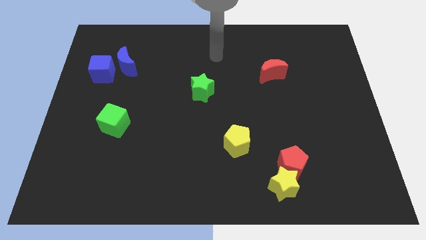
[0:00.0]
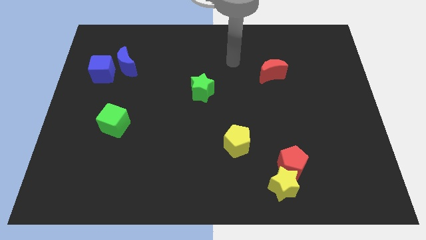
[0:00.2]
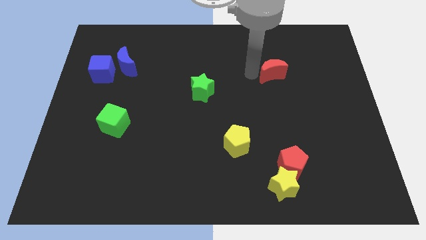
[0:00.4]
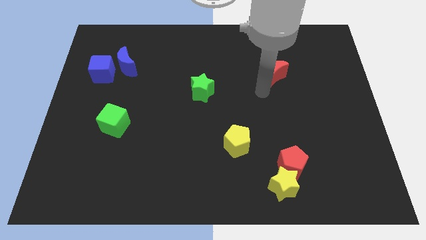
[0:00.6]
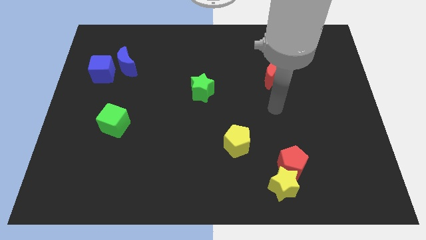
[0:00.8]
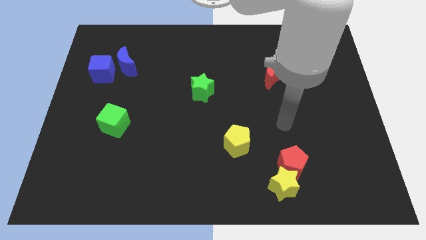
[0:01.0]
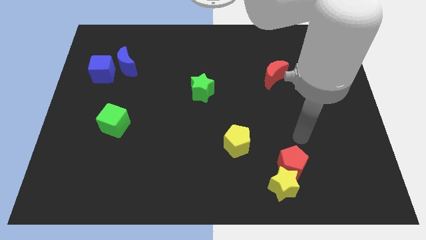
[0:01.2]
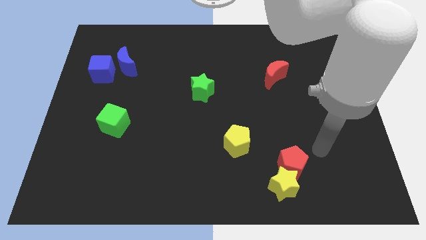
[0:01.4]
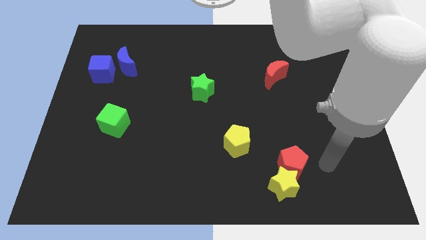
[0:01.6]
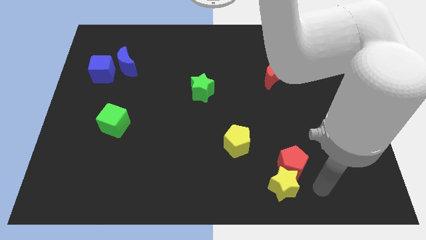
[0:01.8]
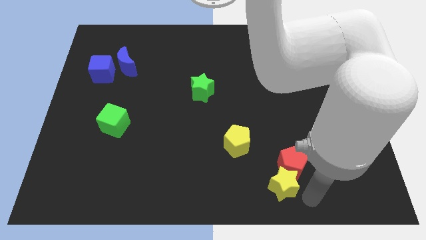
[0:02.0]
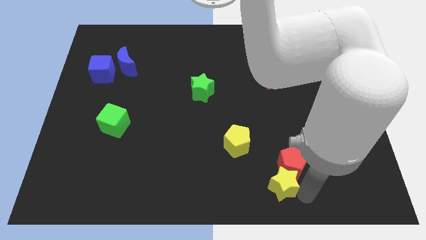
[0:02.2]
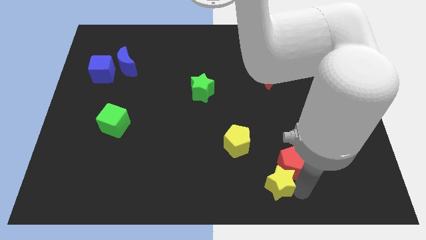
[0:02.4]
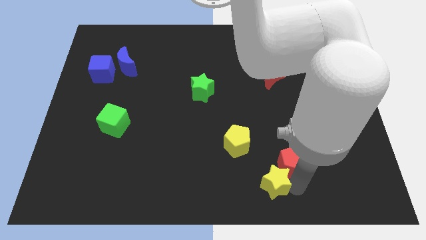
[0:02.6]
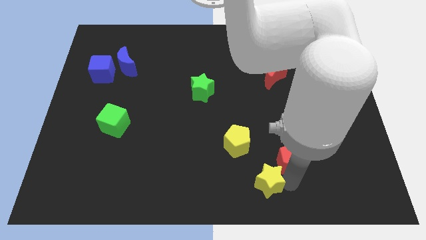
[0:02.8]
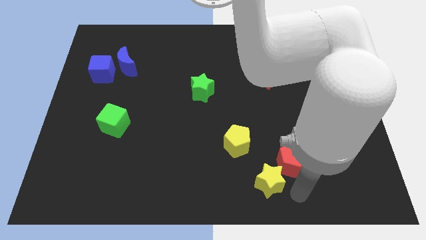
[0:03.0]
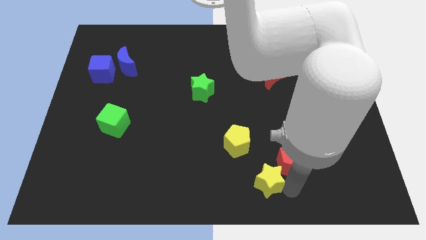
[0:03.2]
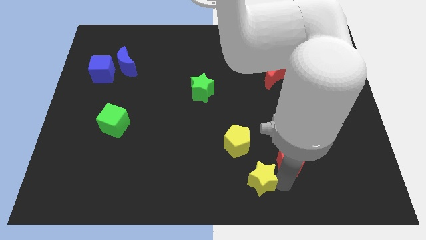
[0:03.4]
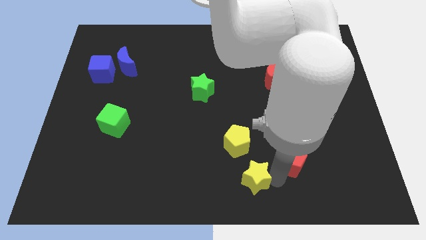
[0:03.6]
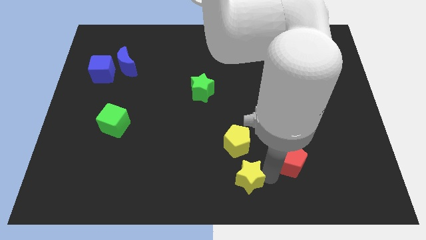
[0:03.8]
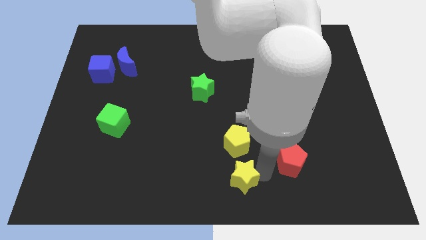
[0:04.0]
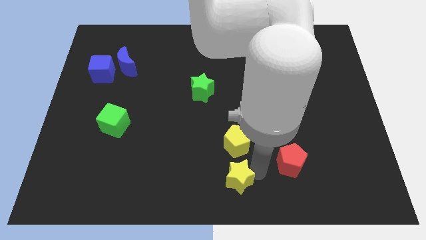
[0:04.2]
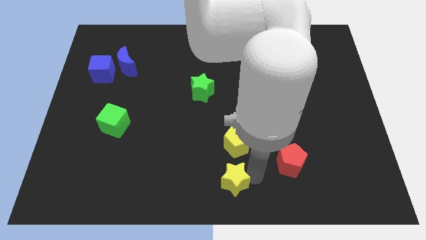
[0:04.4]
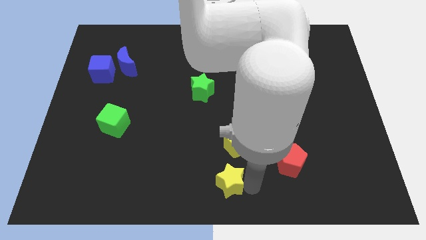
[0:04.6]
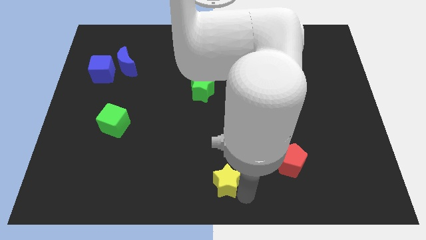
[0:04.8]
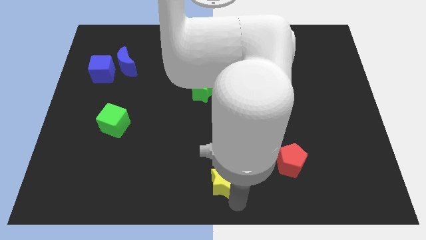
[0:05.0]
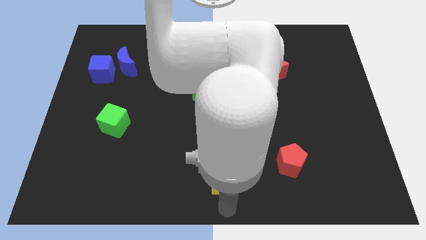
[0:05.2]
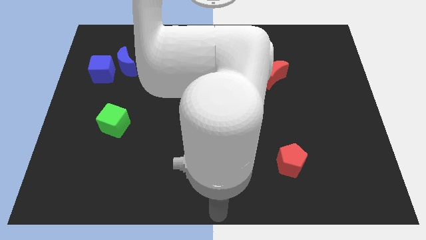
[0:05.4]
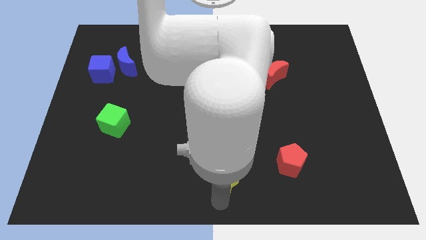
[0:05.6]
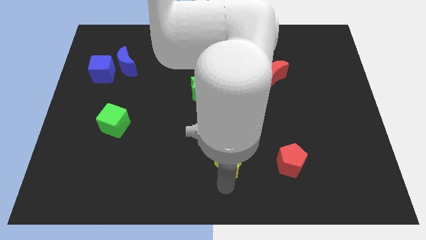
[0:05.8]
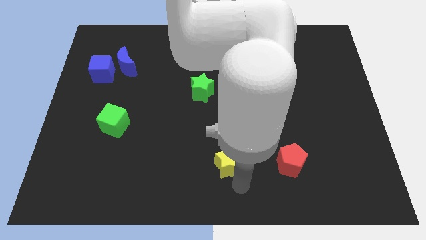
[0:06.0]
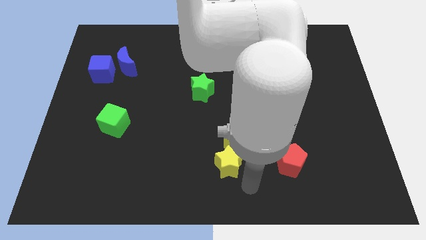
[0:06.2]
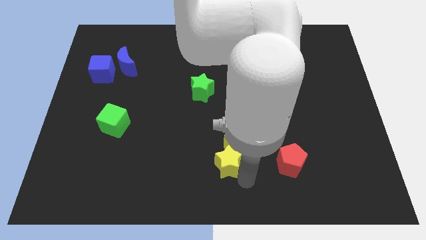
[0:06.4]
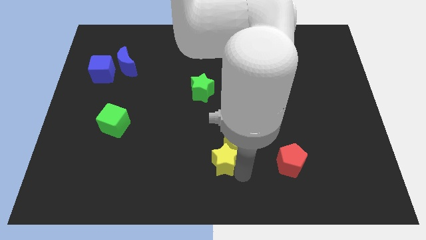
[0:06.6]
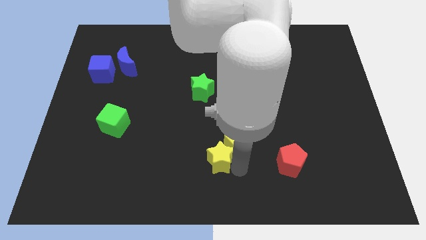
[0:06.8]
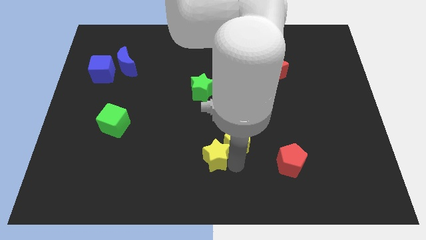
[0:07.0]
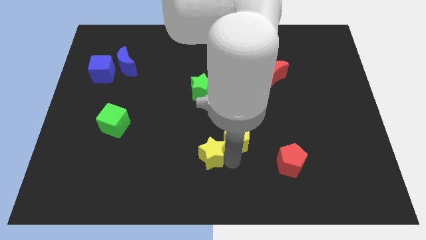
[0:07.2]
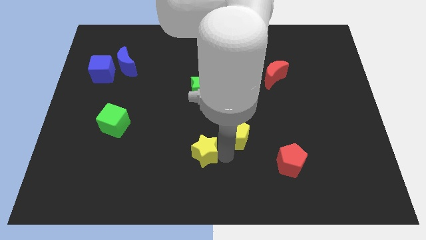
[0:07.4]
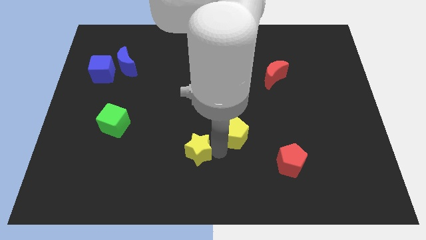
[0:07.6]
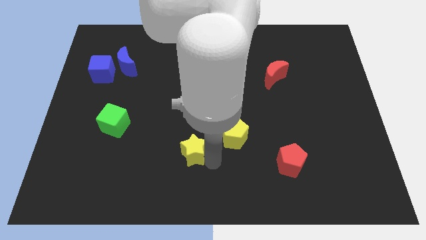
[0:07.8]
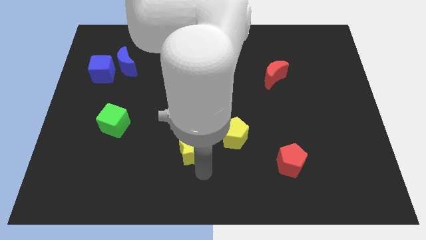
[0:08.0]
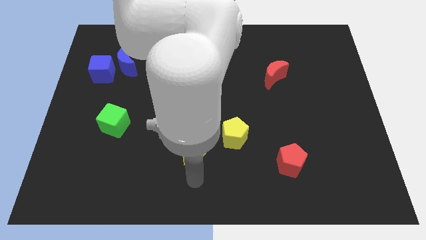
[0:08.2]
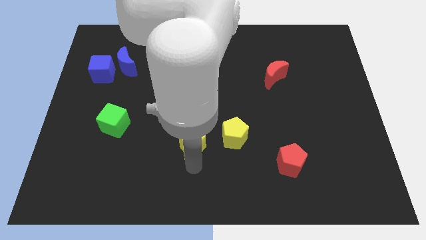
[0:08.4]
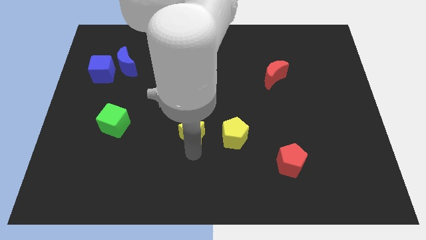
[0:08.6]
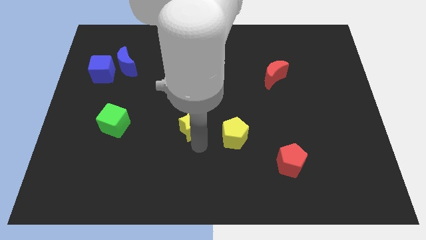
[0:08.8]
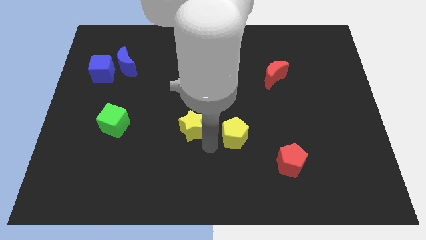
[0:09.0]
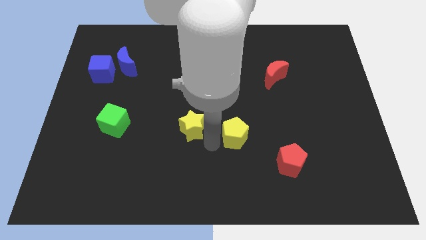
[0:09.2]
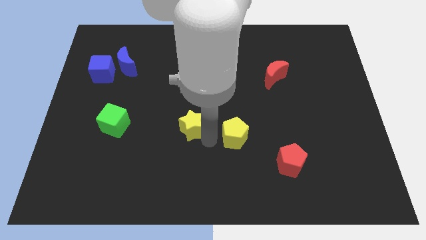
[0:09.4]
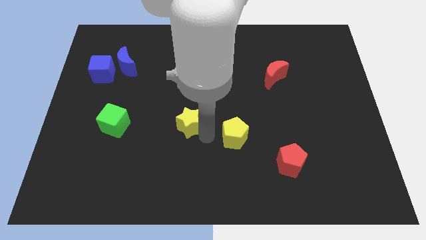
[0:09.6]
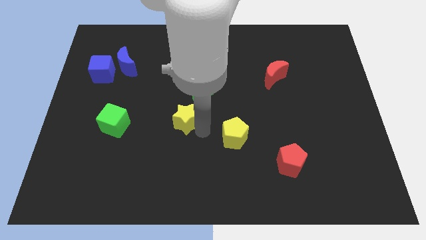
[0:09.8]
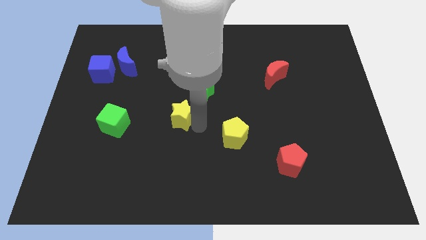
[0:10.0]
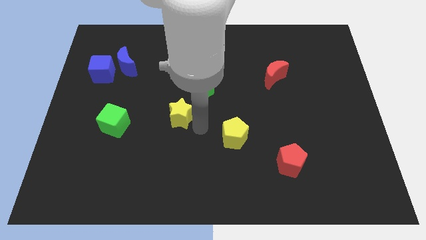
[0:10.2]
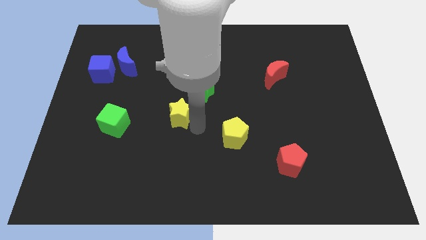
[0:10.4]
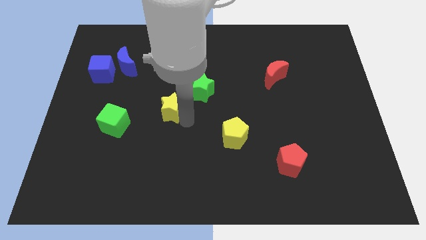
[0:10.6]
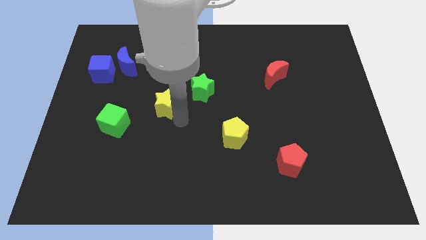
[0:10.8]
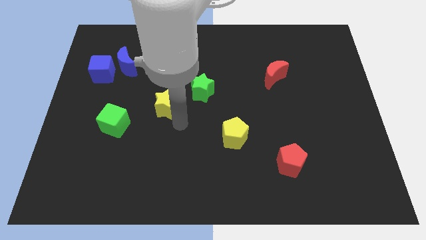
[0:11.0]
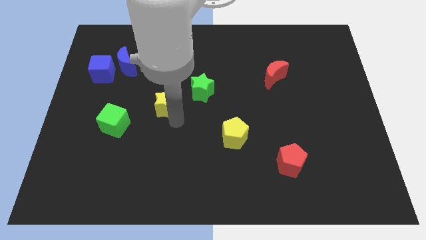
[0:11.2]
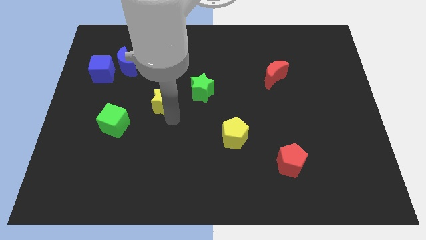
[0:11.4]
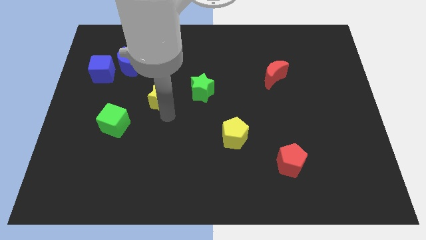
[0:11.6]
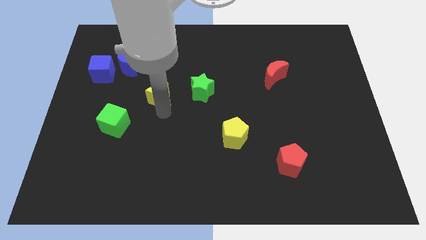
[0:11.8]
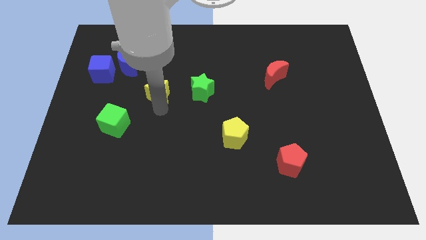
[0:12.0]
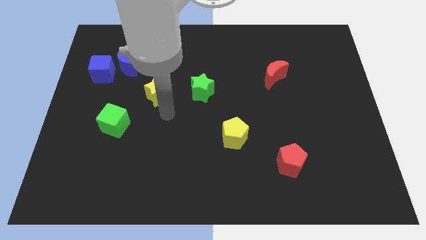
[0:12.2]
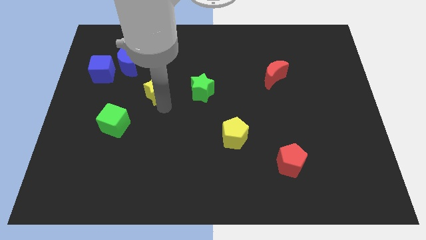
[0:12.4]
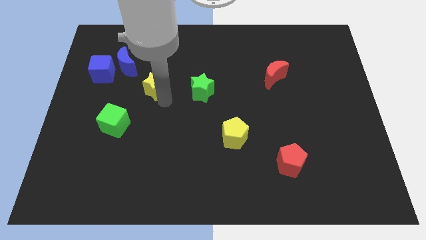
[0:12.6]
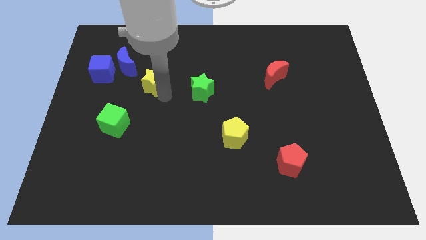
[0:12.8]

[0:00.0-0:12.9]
move the yellow star to the right of the blue cube

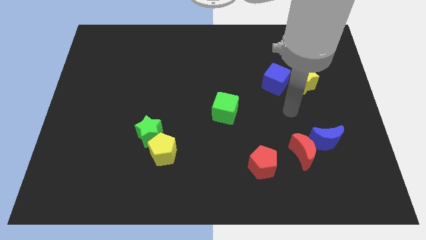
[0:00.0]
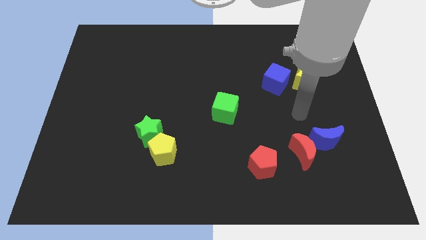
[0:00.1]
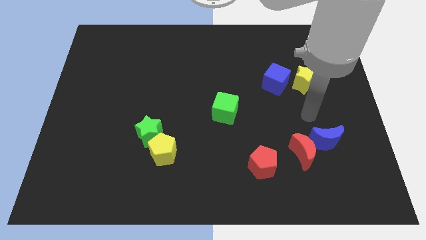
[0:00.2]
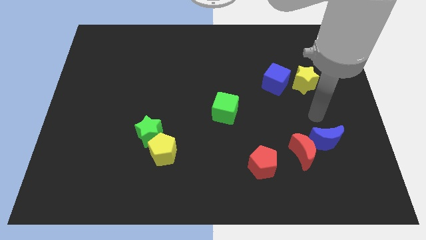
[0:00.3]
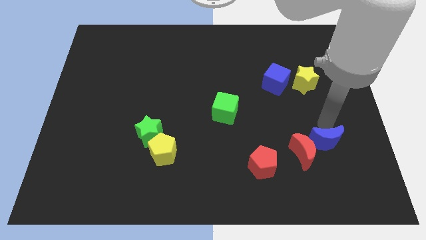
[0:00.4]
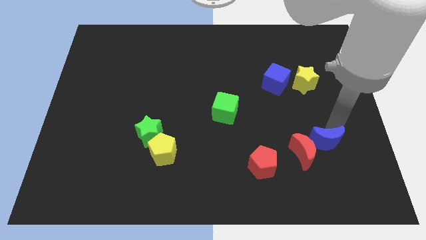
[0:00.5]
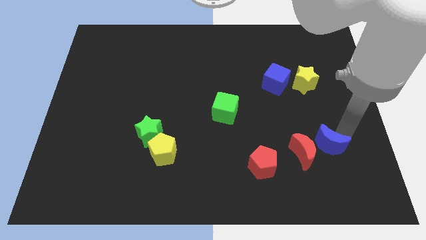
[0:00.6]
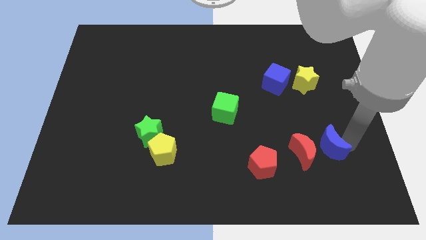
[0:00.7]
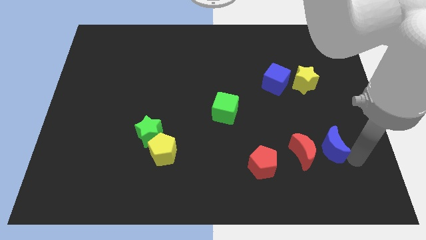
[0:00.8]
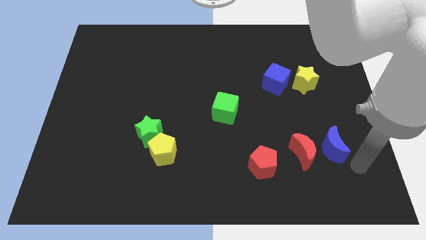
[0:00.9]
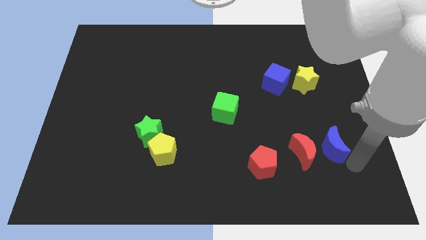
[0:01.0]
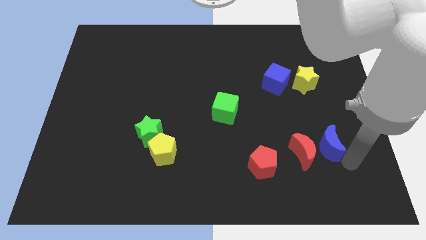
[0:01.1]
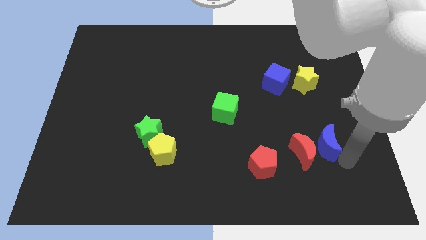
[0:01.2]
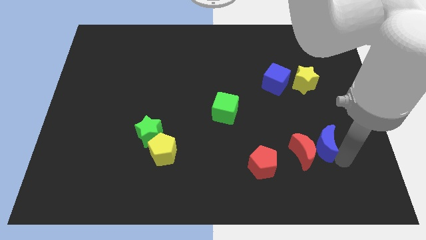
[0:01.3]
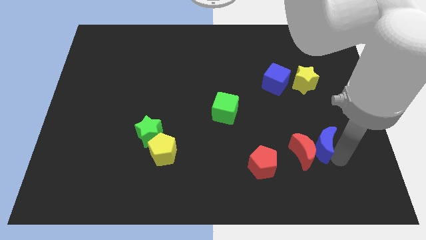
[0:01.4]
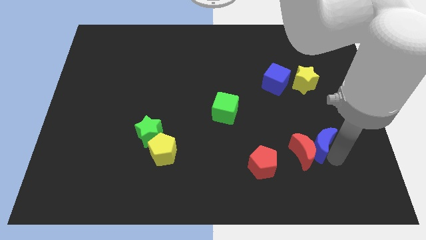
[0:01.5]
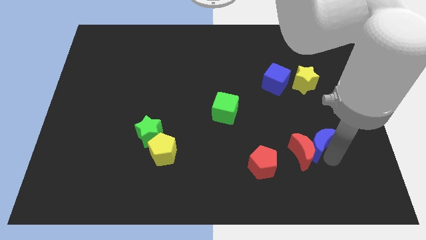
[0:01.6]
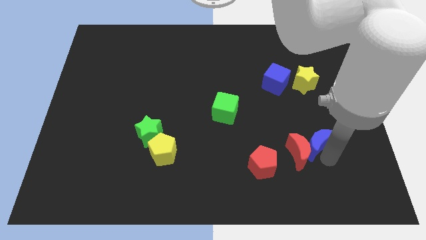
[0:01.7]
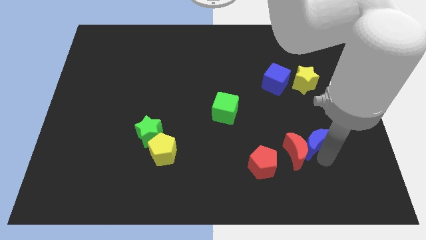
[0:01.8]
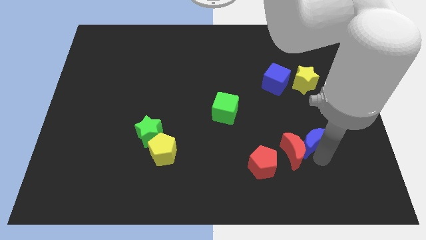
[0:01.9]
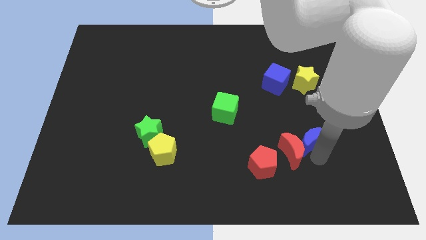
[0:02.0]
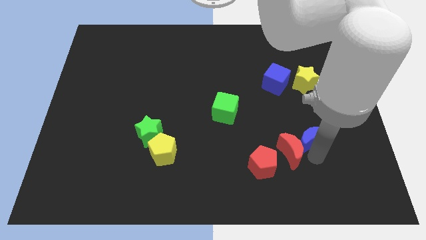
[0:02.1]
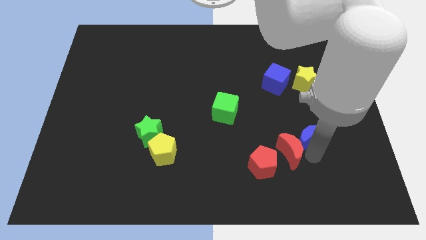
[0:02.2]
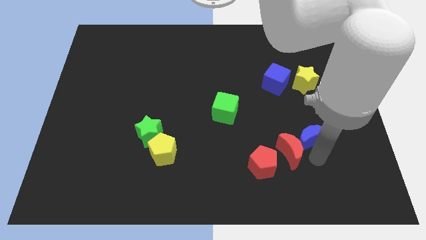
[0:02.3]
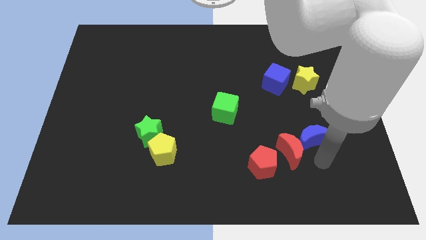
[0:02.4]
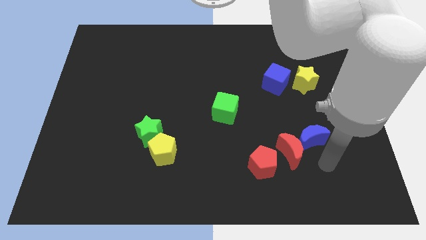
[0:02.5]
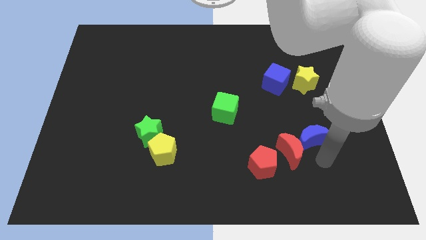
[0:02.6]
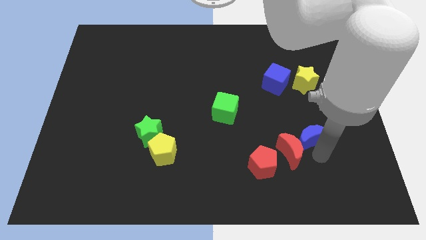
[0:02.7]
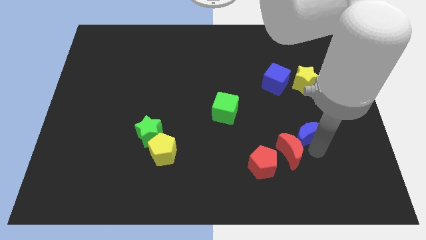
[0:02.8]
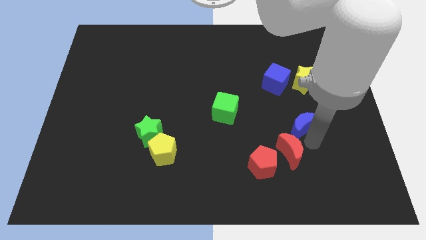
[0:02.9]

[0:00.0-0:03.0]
put the blue moon below the blue cube
